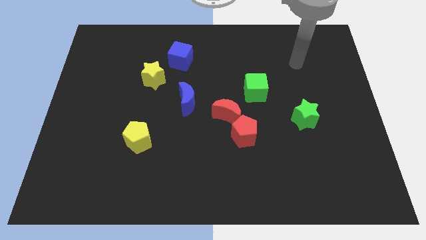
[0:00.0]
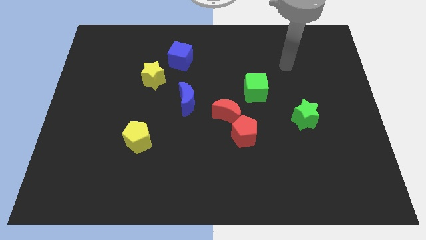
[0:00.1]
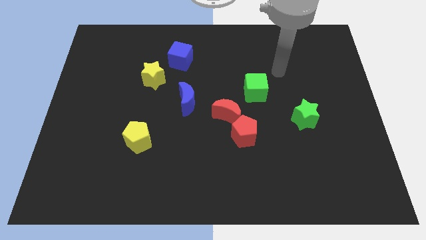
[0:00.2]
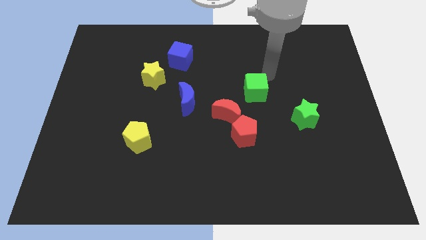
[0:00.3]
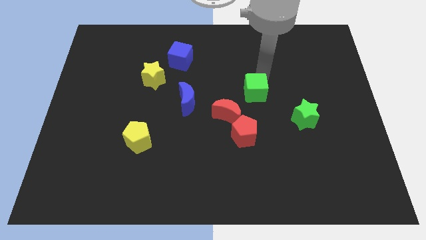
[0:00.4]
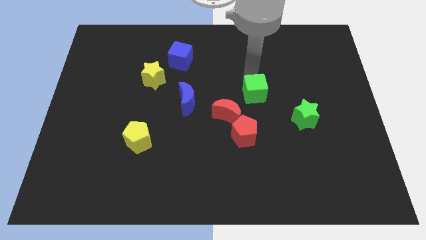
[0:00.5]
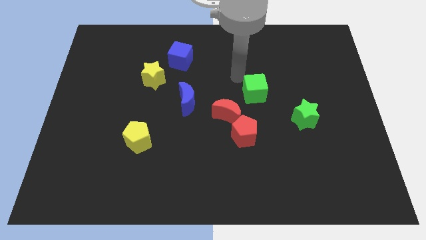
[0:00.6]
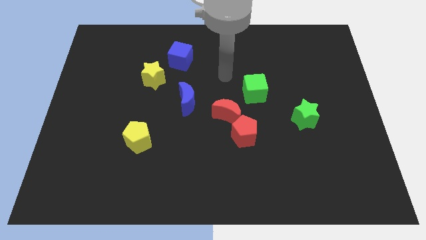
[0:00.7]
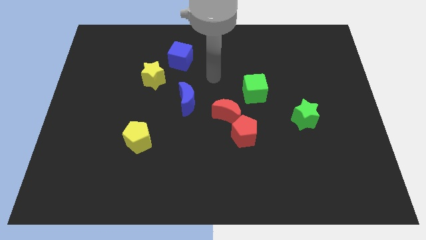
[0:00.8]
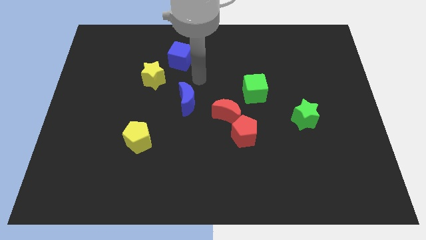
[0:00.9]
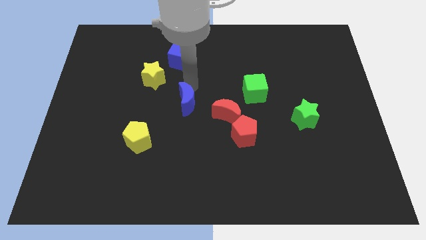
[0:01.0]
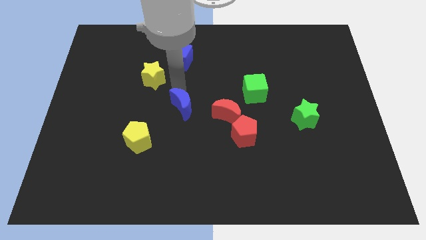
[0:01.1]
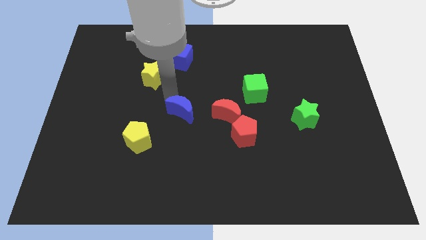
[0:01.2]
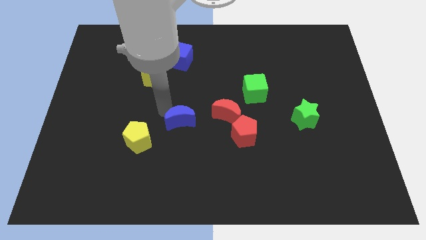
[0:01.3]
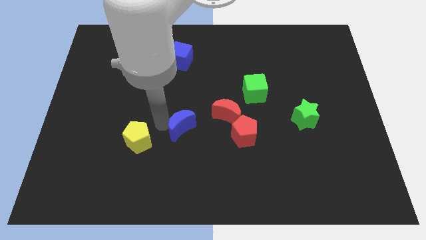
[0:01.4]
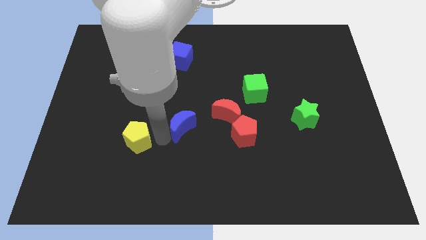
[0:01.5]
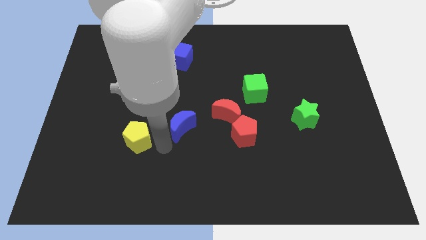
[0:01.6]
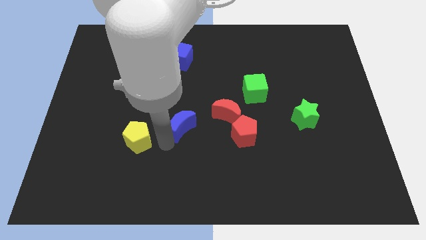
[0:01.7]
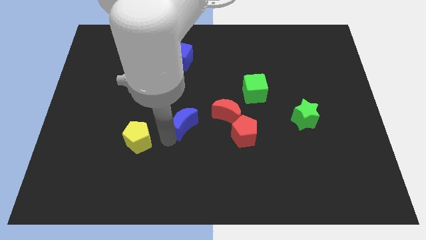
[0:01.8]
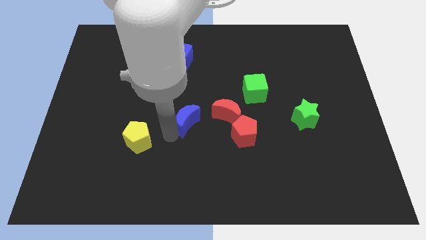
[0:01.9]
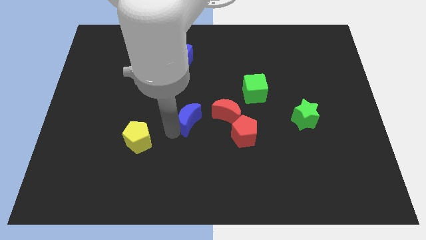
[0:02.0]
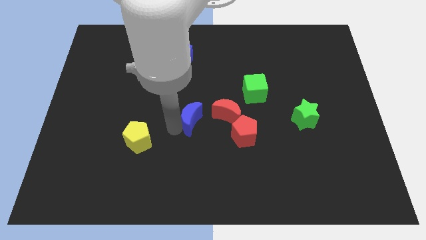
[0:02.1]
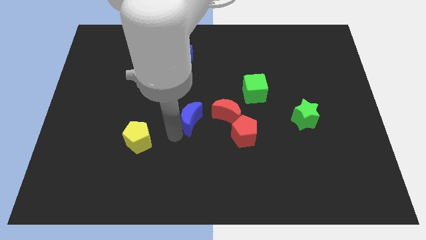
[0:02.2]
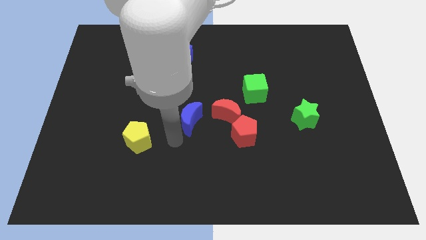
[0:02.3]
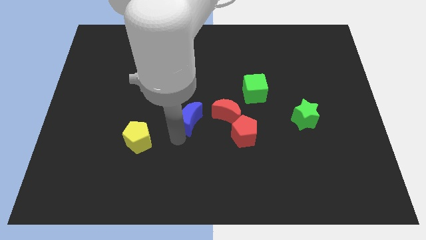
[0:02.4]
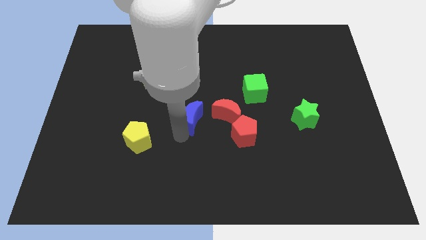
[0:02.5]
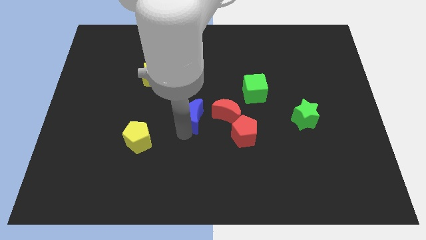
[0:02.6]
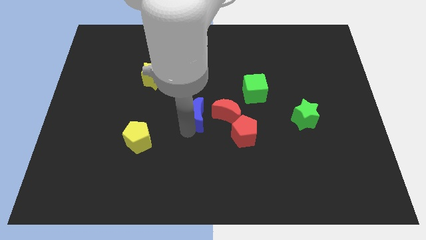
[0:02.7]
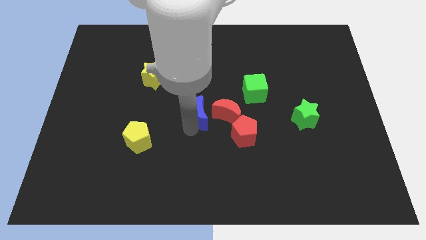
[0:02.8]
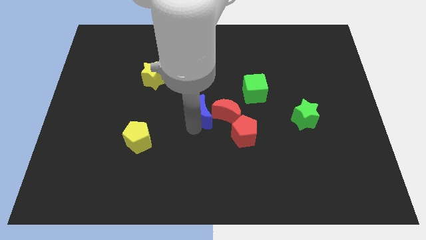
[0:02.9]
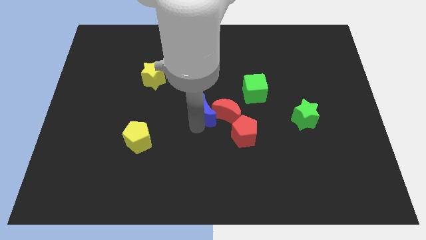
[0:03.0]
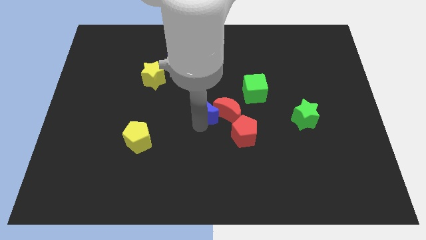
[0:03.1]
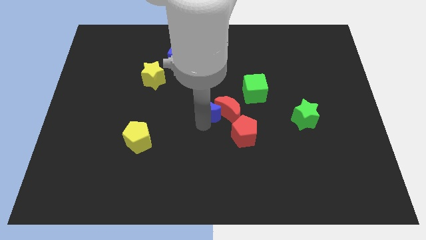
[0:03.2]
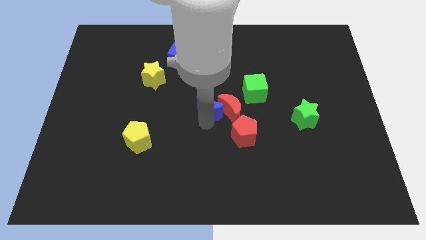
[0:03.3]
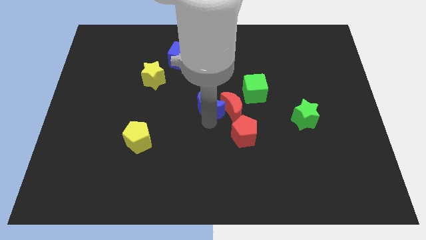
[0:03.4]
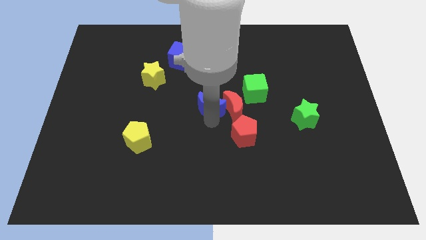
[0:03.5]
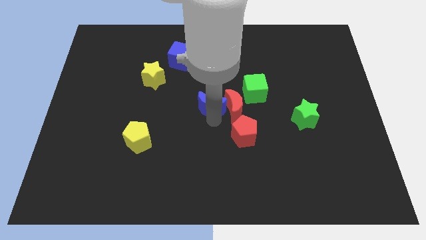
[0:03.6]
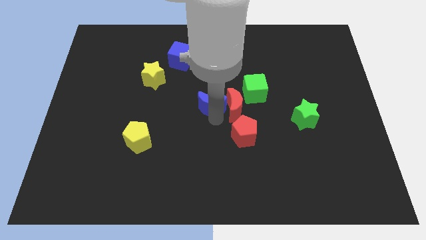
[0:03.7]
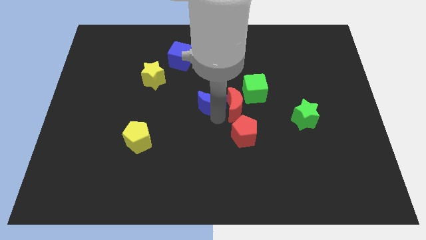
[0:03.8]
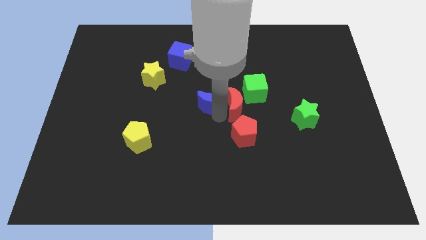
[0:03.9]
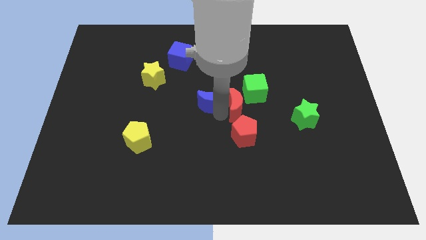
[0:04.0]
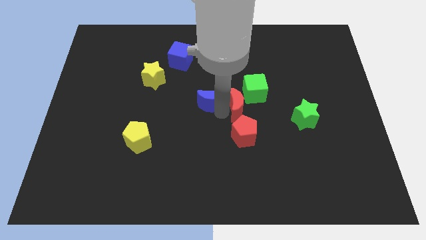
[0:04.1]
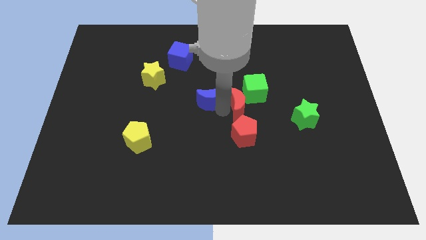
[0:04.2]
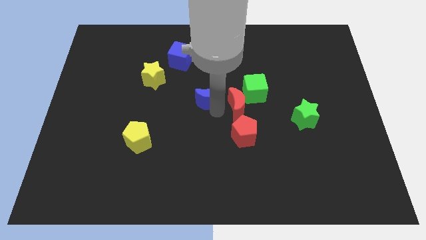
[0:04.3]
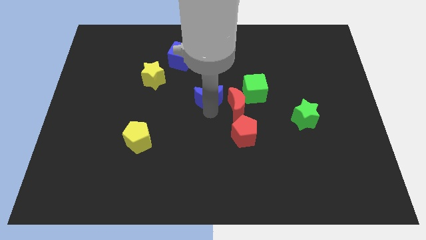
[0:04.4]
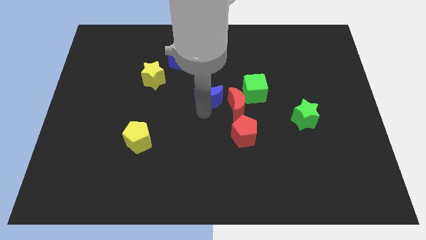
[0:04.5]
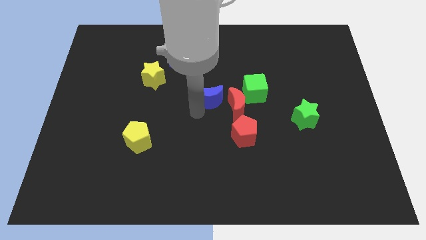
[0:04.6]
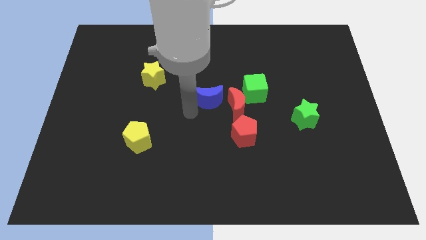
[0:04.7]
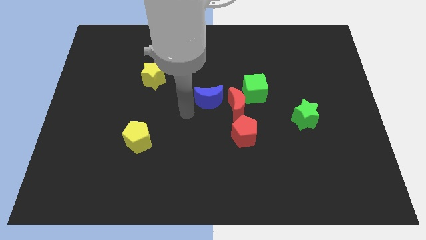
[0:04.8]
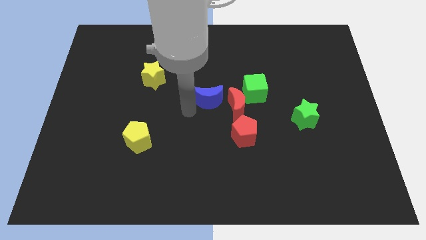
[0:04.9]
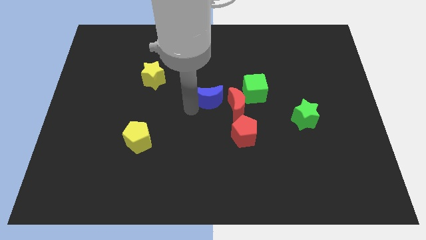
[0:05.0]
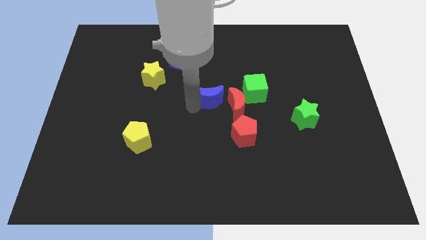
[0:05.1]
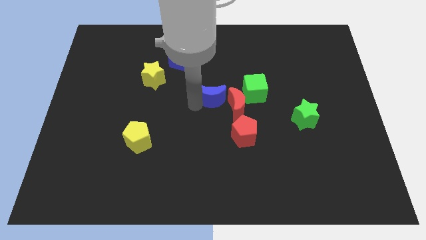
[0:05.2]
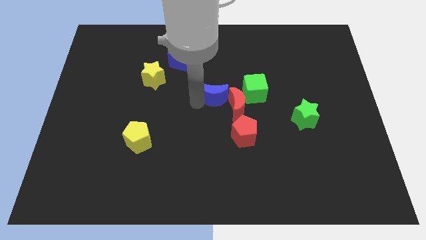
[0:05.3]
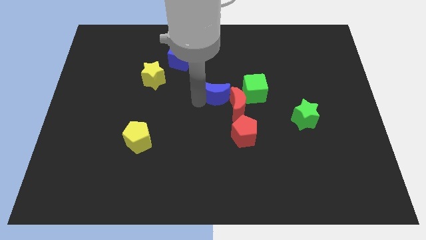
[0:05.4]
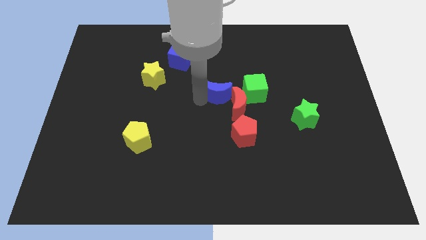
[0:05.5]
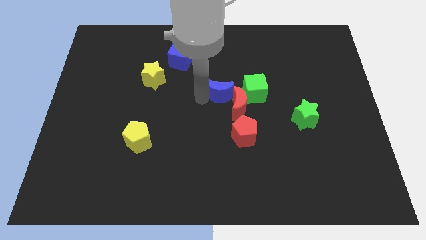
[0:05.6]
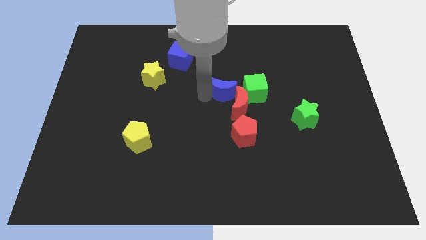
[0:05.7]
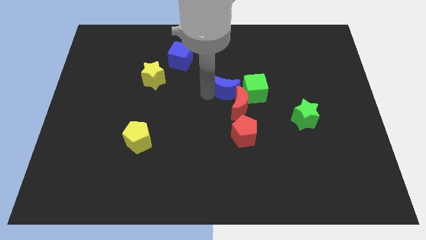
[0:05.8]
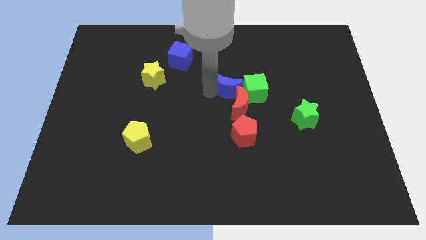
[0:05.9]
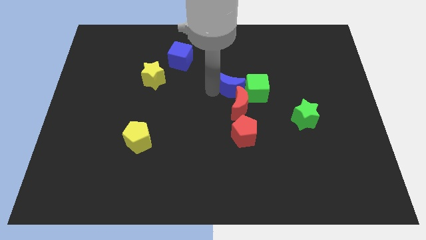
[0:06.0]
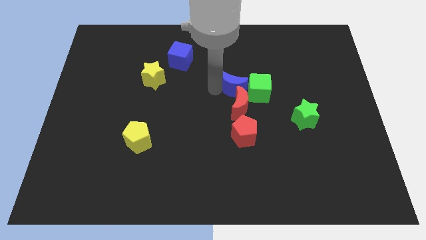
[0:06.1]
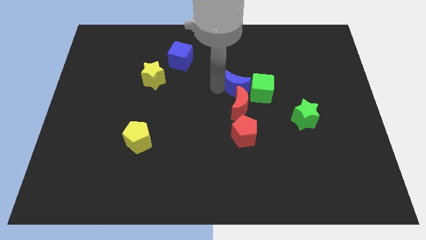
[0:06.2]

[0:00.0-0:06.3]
move the blue moon towards the green cube

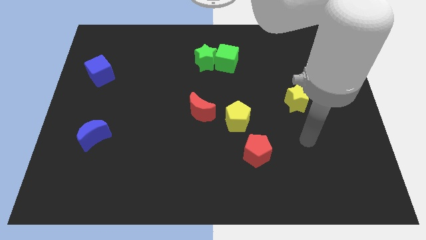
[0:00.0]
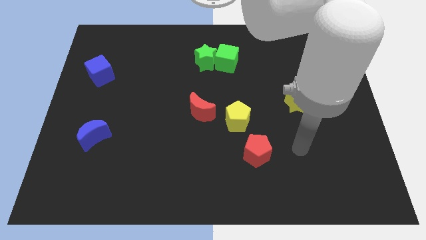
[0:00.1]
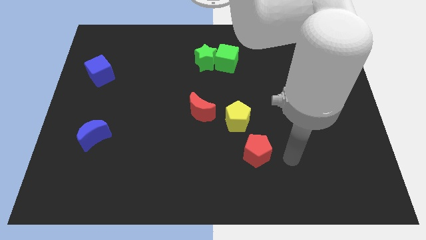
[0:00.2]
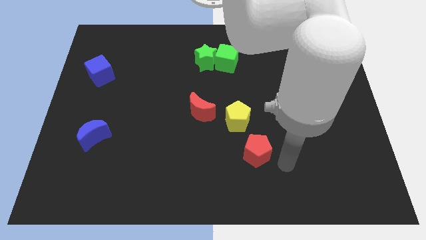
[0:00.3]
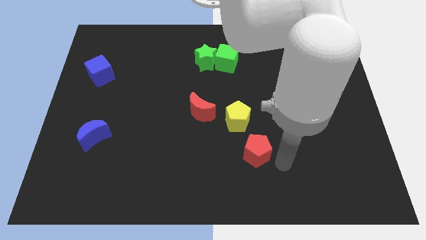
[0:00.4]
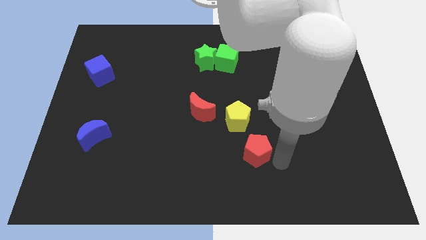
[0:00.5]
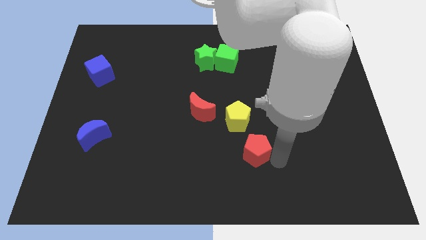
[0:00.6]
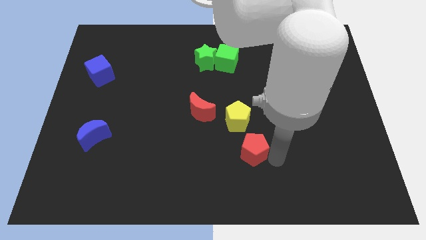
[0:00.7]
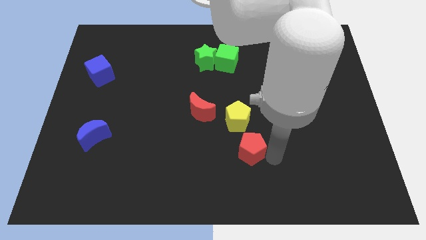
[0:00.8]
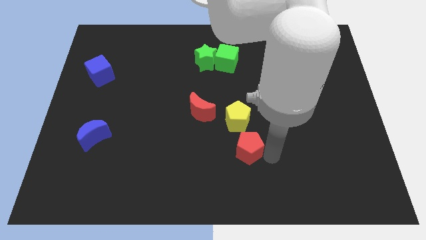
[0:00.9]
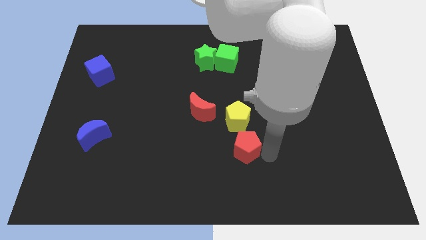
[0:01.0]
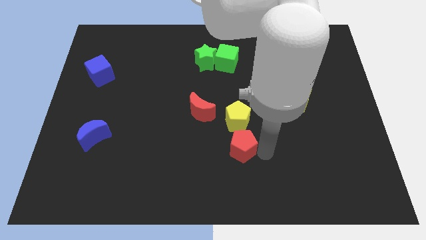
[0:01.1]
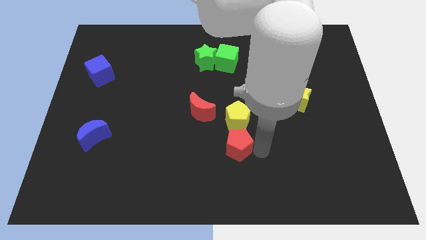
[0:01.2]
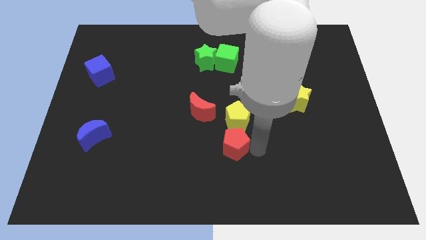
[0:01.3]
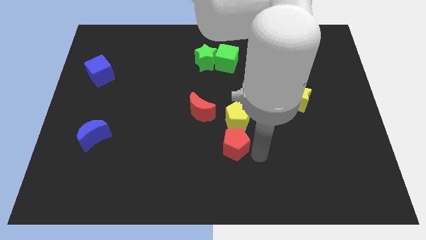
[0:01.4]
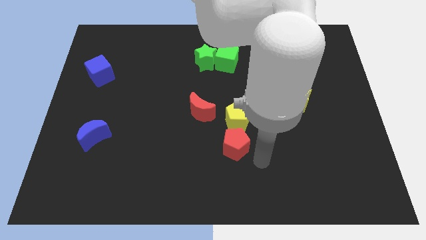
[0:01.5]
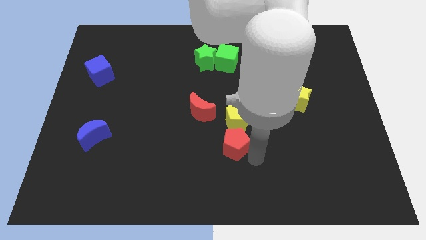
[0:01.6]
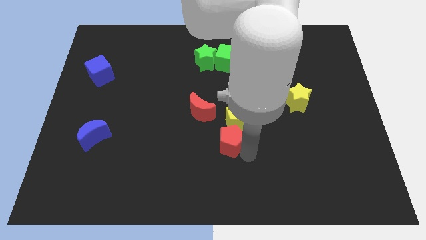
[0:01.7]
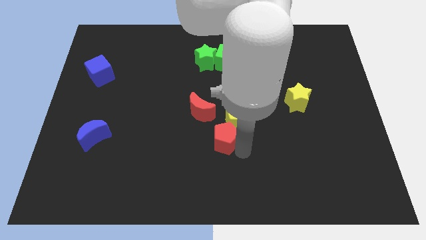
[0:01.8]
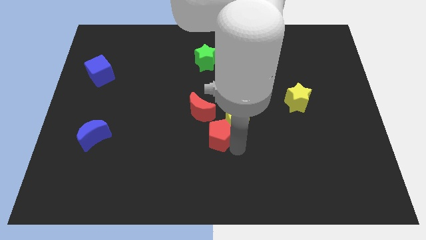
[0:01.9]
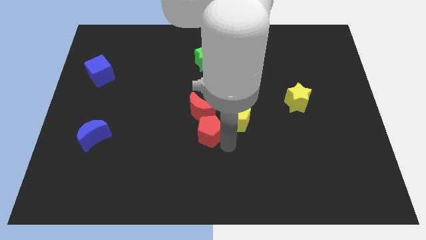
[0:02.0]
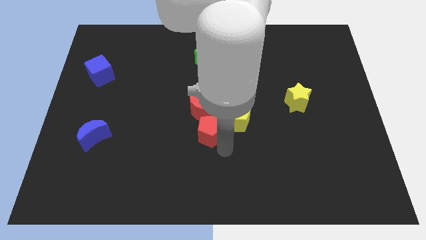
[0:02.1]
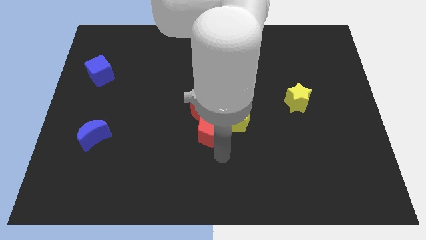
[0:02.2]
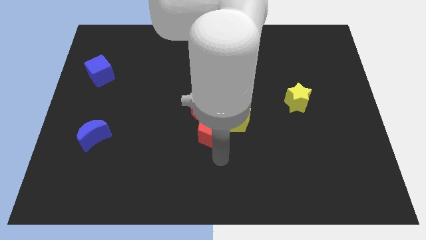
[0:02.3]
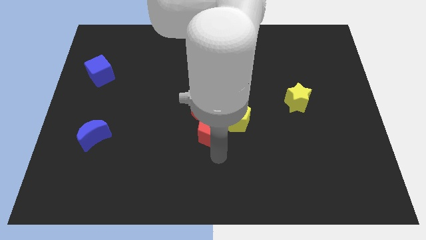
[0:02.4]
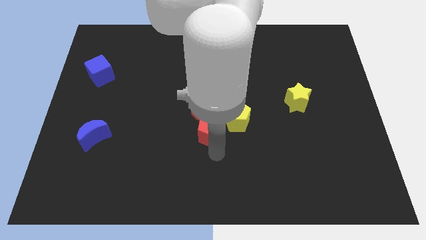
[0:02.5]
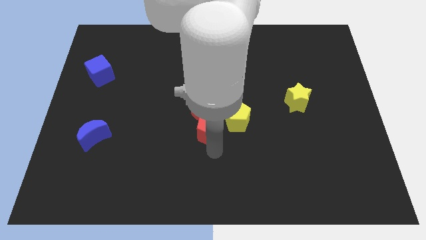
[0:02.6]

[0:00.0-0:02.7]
push the red pentagon close to the red moon
